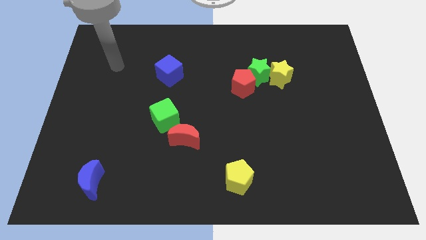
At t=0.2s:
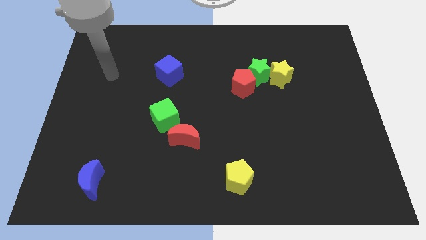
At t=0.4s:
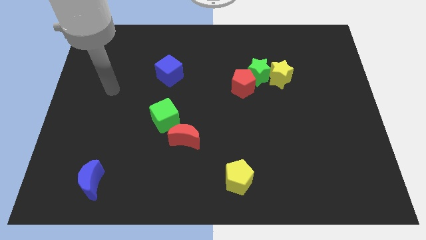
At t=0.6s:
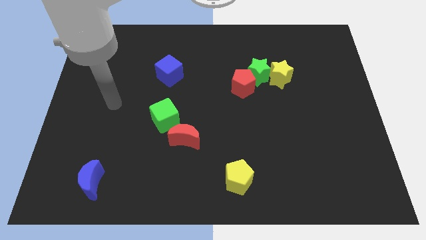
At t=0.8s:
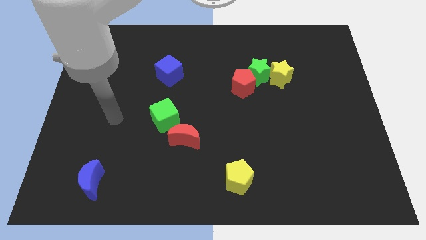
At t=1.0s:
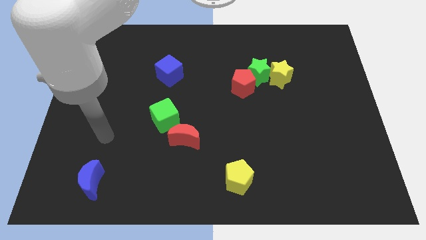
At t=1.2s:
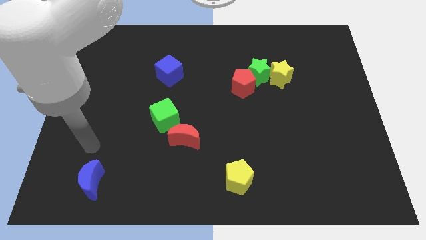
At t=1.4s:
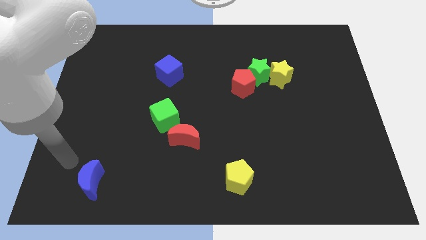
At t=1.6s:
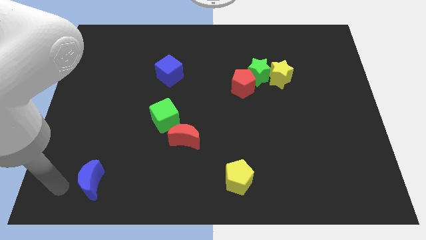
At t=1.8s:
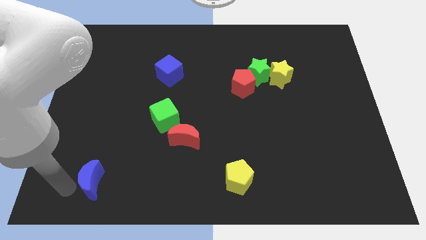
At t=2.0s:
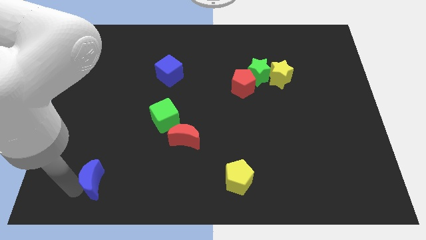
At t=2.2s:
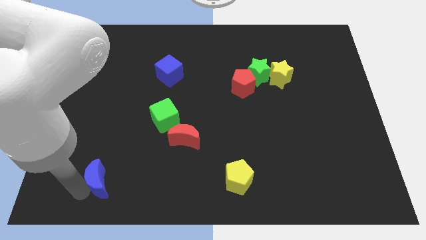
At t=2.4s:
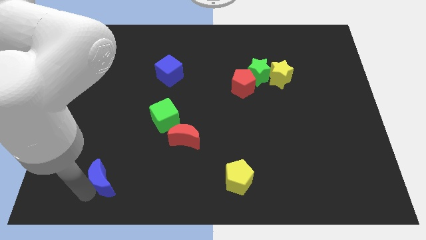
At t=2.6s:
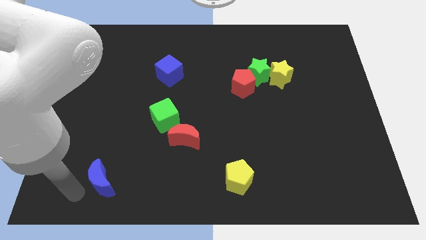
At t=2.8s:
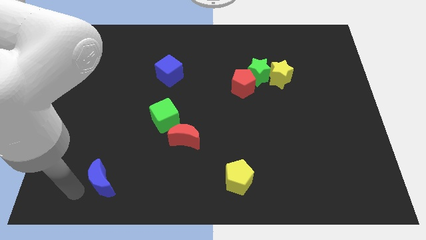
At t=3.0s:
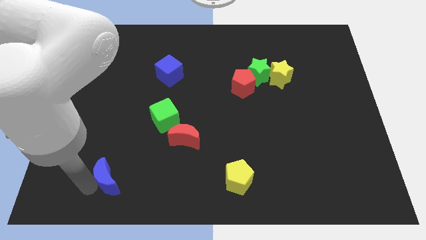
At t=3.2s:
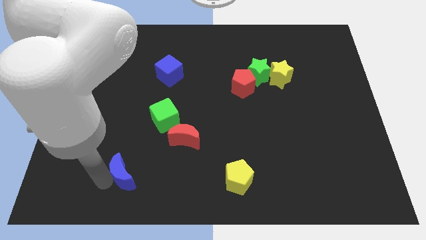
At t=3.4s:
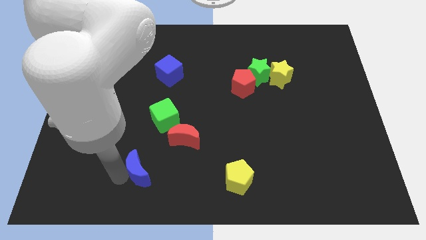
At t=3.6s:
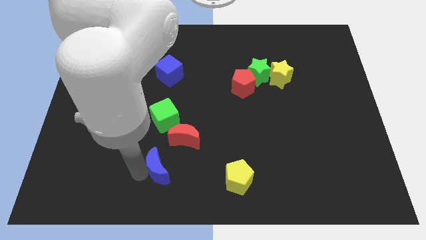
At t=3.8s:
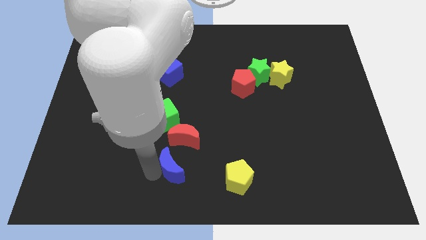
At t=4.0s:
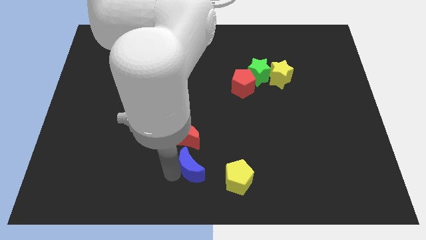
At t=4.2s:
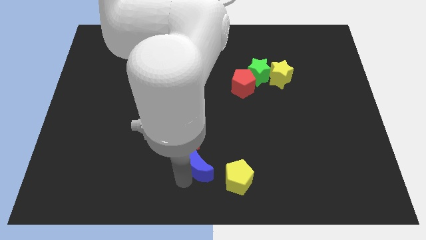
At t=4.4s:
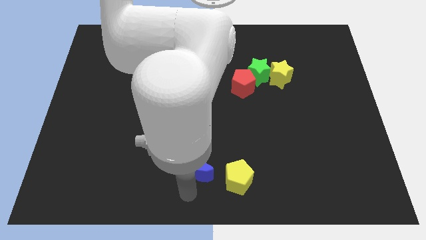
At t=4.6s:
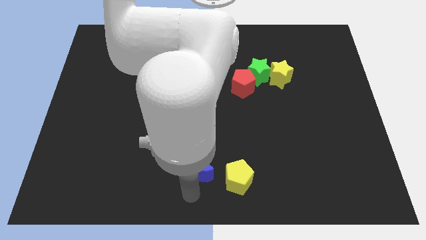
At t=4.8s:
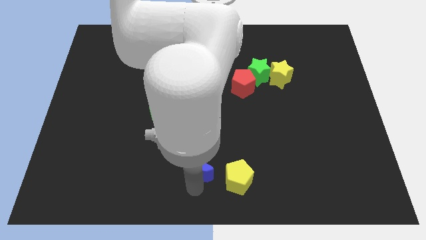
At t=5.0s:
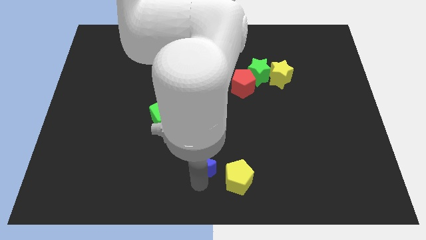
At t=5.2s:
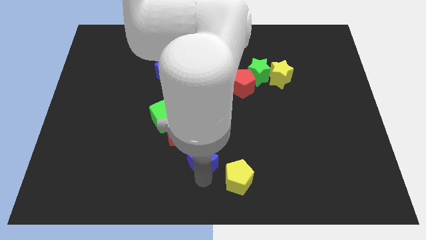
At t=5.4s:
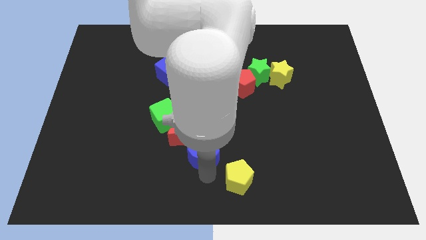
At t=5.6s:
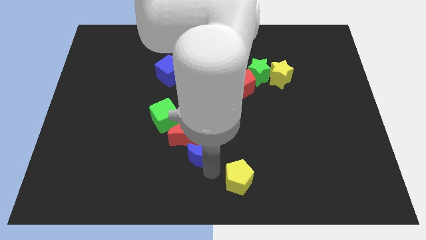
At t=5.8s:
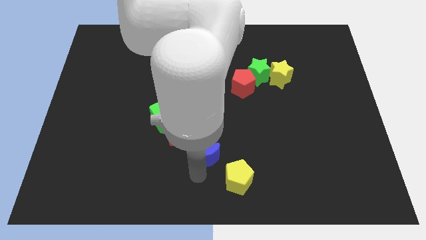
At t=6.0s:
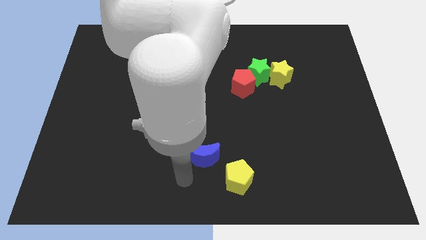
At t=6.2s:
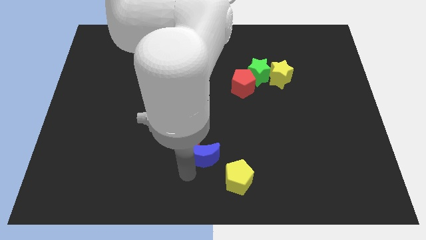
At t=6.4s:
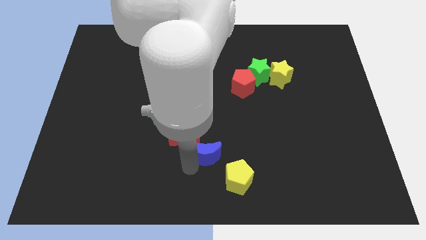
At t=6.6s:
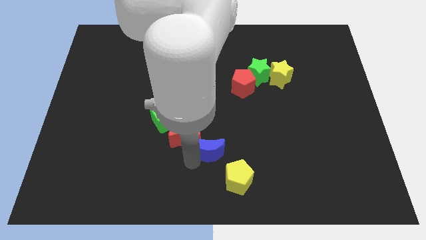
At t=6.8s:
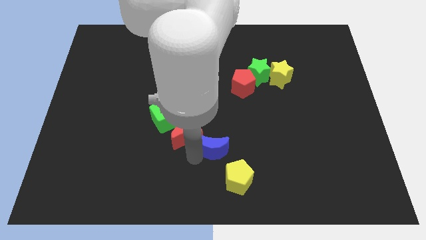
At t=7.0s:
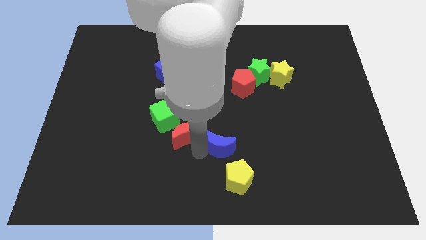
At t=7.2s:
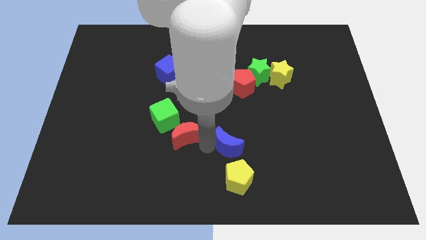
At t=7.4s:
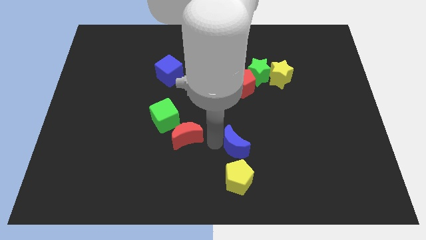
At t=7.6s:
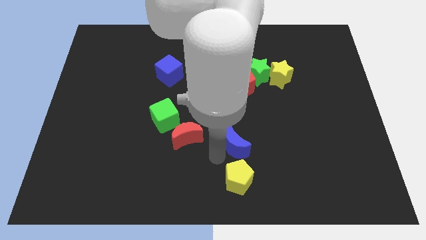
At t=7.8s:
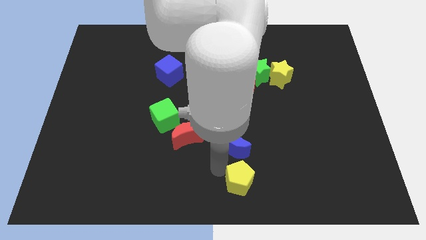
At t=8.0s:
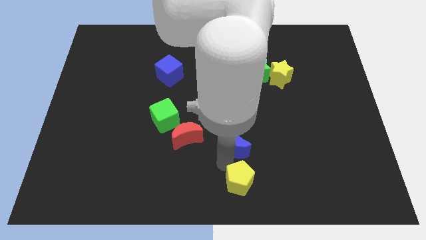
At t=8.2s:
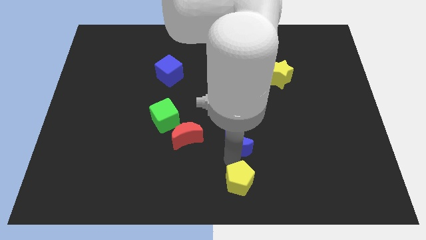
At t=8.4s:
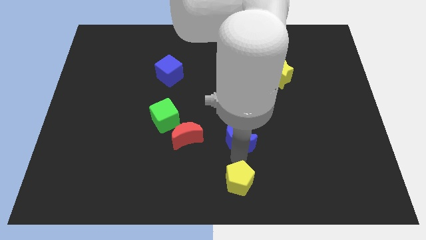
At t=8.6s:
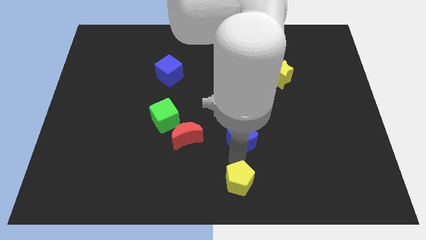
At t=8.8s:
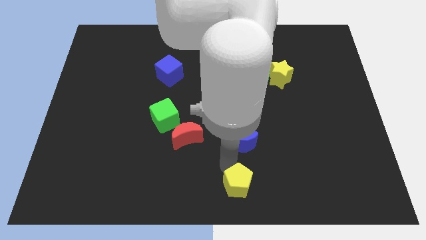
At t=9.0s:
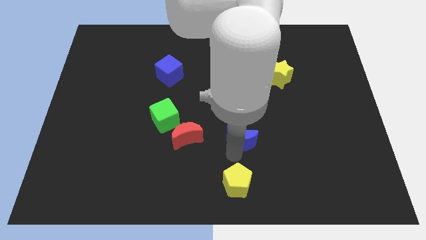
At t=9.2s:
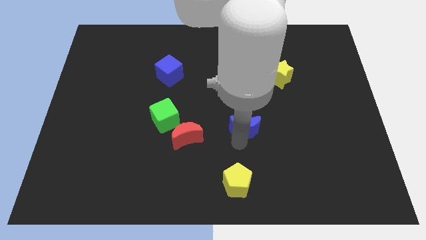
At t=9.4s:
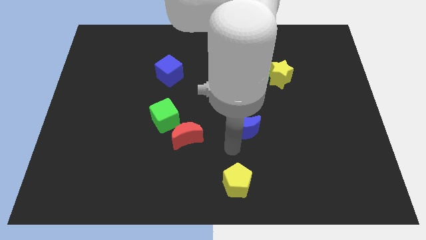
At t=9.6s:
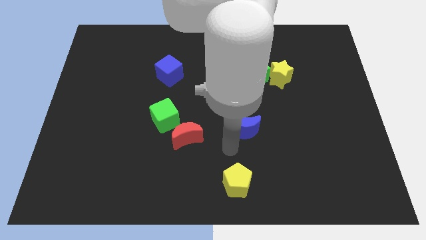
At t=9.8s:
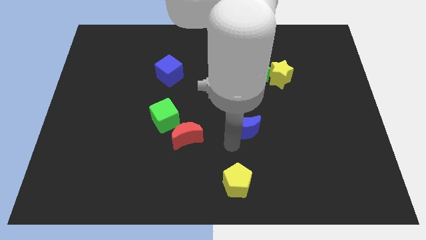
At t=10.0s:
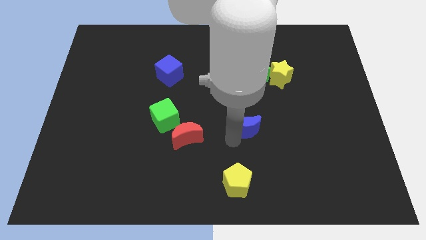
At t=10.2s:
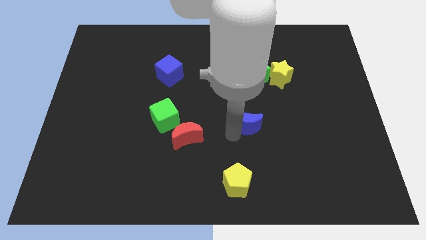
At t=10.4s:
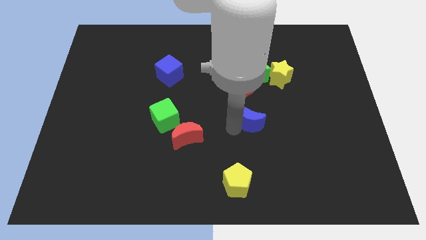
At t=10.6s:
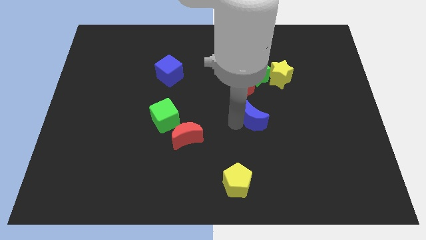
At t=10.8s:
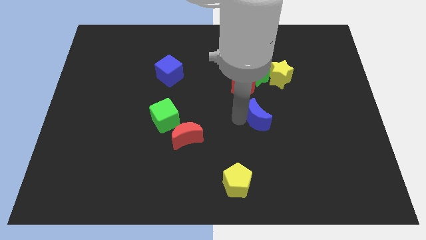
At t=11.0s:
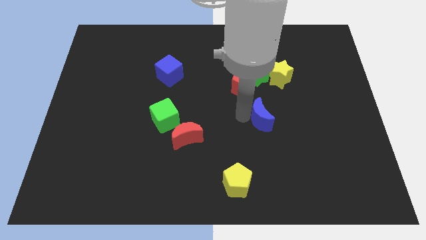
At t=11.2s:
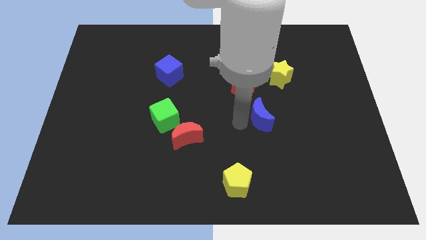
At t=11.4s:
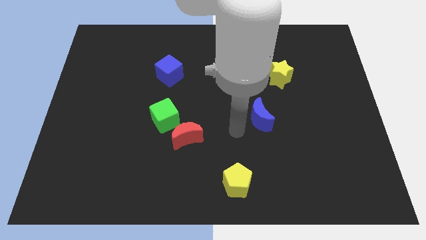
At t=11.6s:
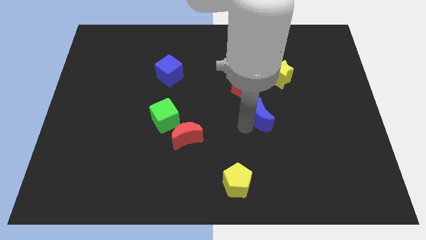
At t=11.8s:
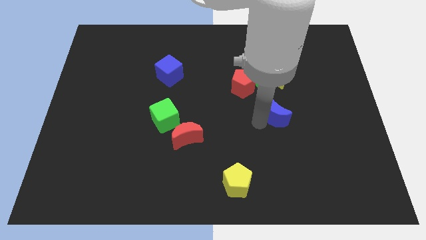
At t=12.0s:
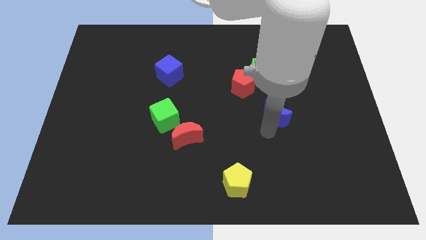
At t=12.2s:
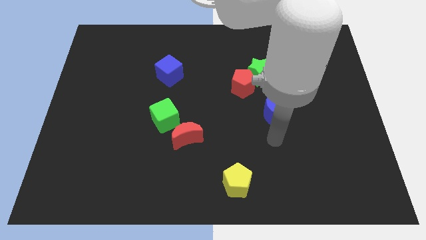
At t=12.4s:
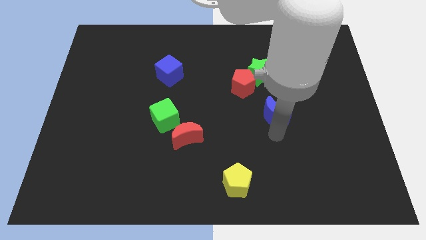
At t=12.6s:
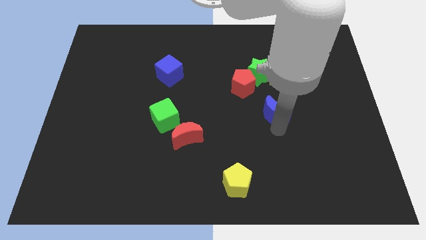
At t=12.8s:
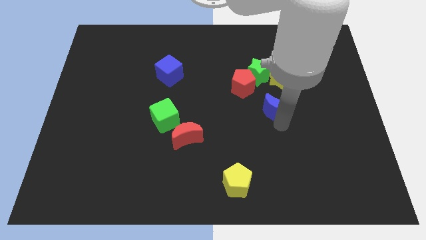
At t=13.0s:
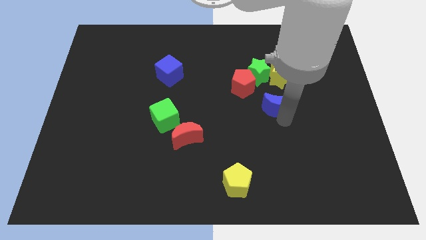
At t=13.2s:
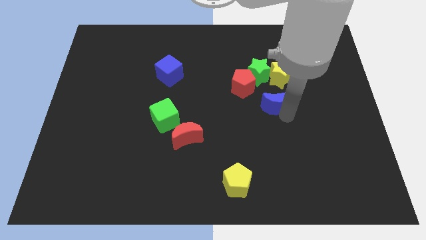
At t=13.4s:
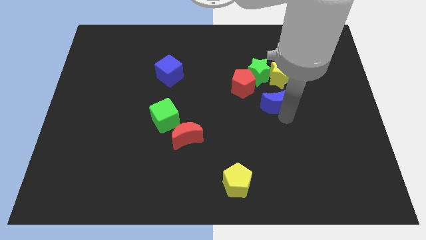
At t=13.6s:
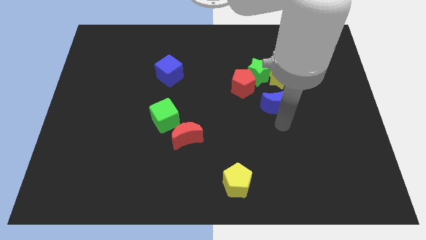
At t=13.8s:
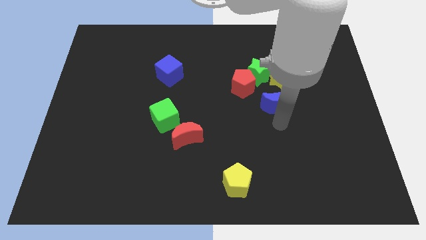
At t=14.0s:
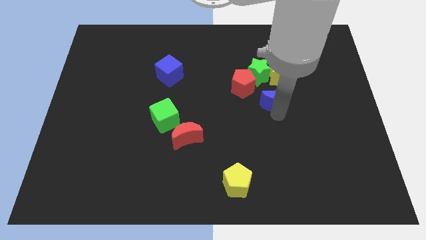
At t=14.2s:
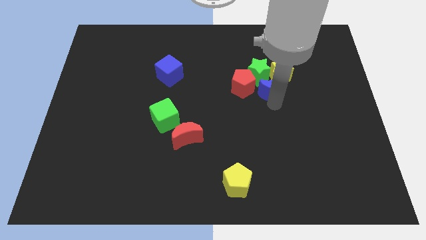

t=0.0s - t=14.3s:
move the blue moon close to the yellow star

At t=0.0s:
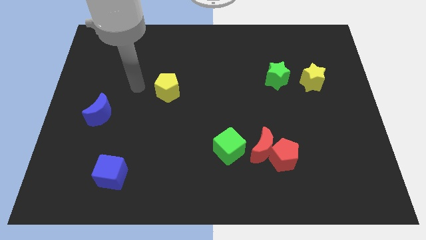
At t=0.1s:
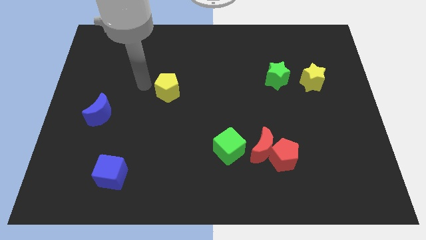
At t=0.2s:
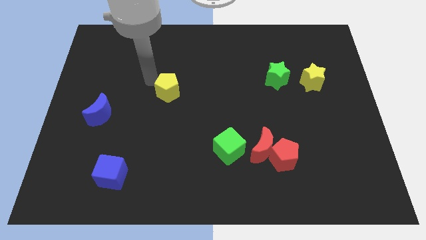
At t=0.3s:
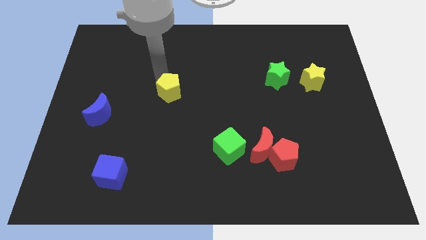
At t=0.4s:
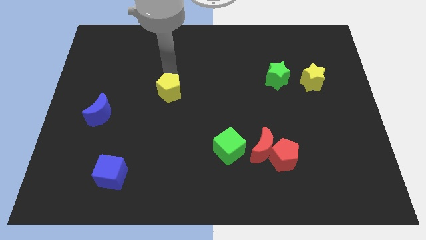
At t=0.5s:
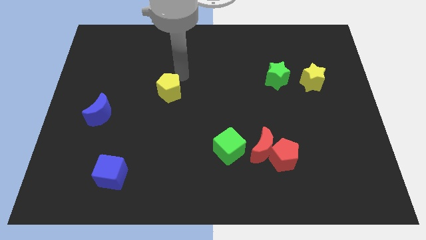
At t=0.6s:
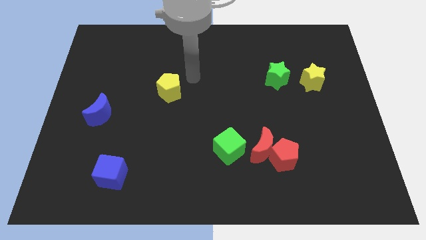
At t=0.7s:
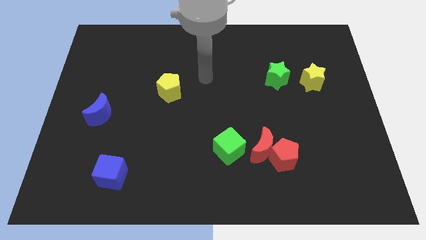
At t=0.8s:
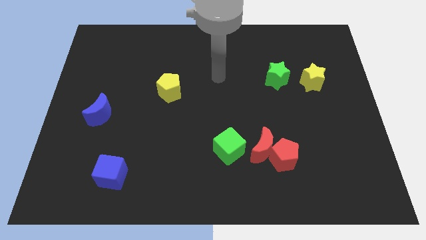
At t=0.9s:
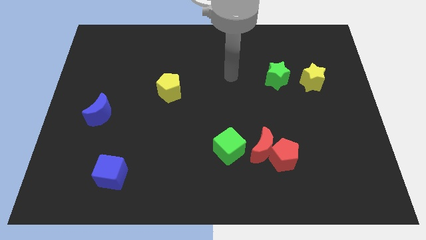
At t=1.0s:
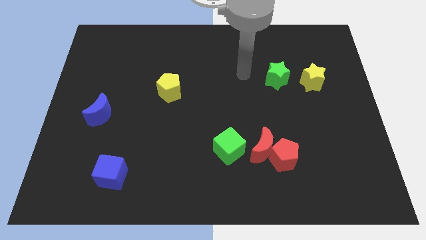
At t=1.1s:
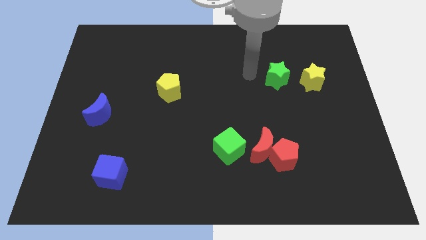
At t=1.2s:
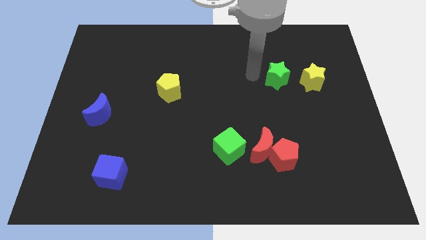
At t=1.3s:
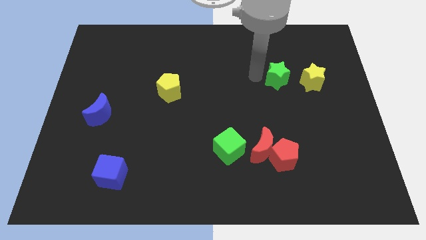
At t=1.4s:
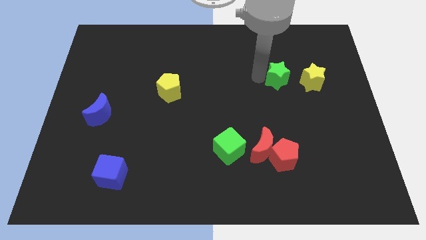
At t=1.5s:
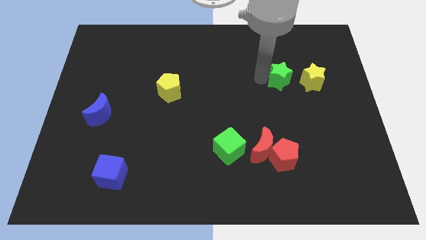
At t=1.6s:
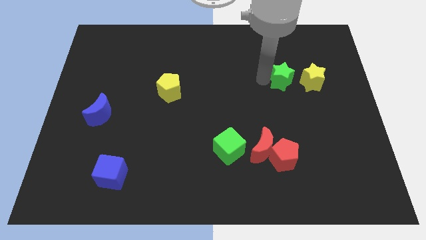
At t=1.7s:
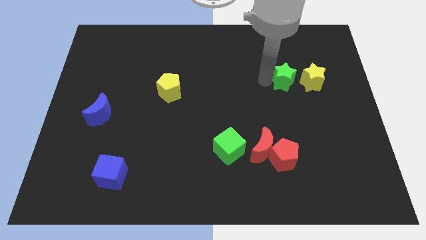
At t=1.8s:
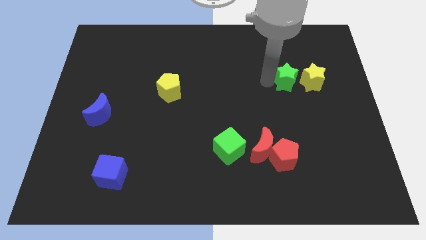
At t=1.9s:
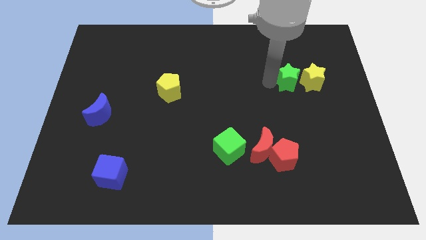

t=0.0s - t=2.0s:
move the green star close to the yellow star
